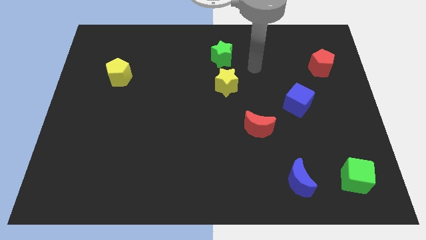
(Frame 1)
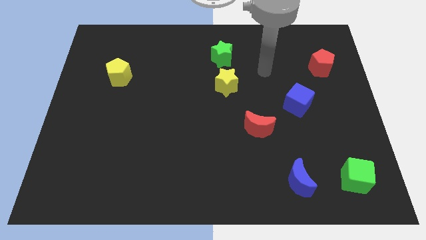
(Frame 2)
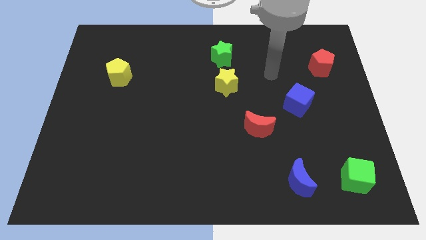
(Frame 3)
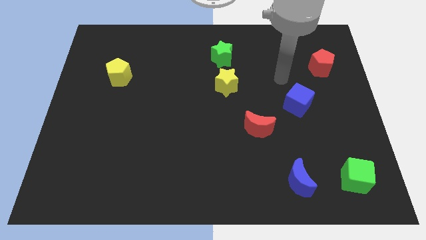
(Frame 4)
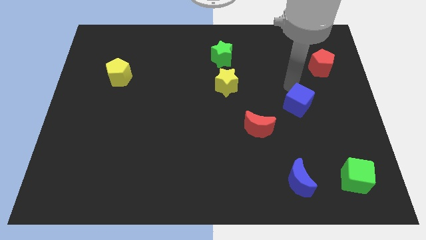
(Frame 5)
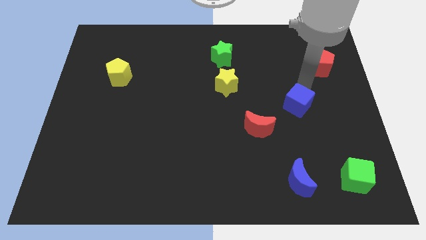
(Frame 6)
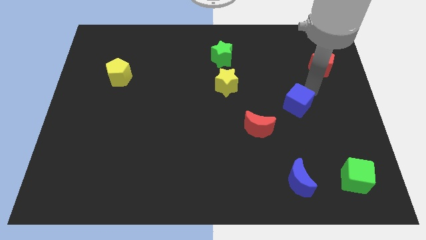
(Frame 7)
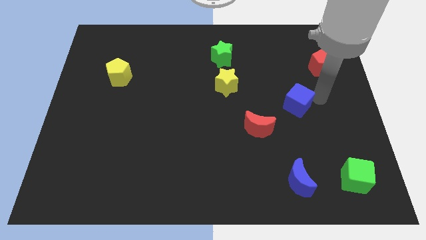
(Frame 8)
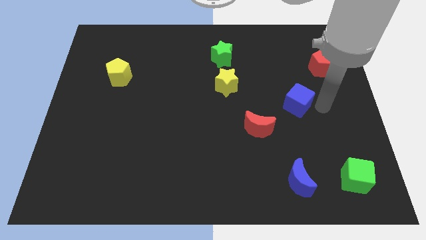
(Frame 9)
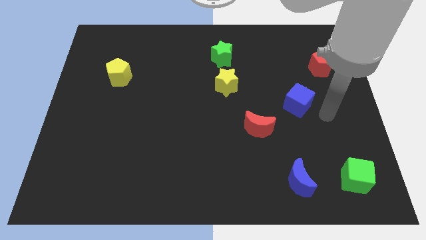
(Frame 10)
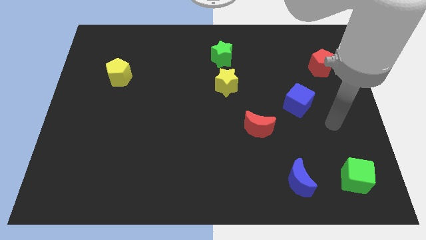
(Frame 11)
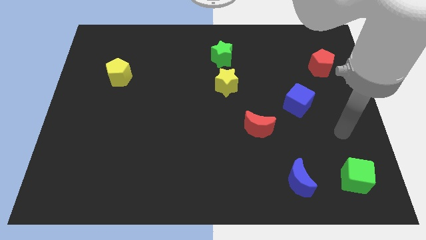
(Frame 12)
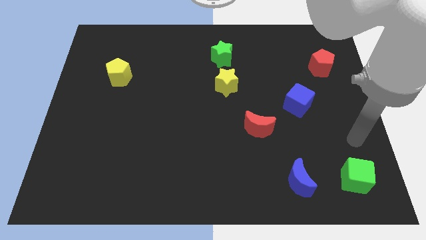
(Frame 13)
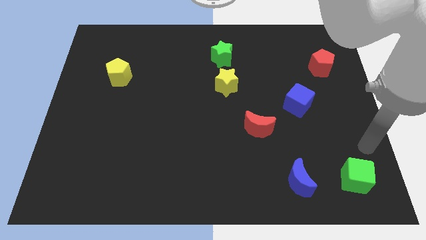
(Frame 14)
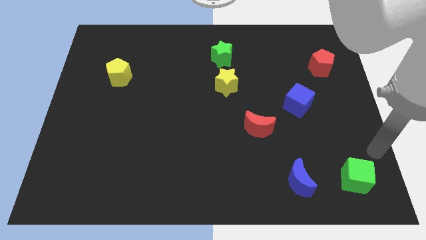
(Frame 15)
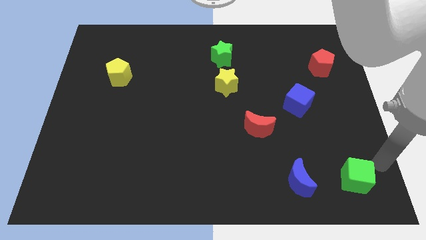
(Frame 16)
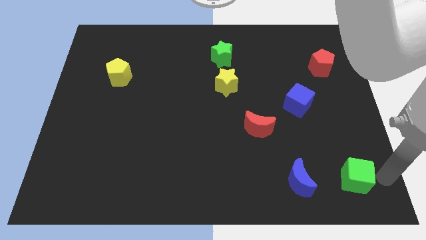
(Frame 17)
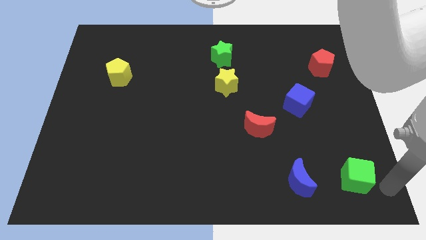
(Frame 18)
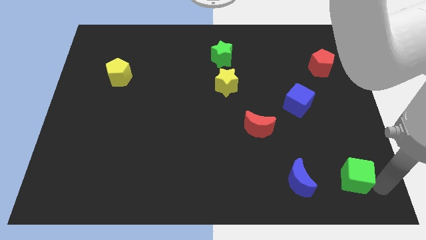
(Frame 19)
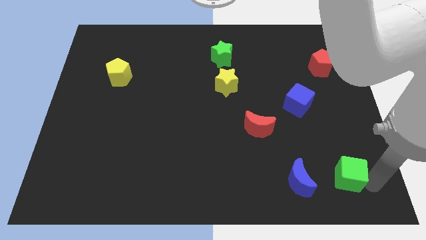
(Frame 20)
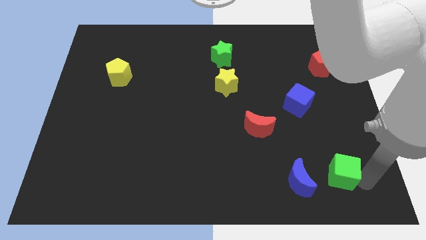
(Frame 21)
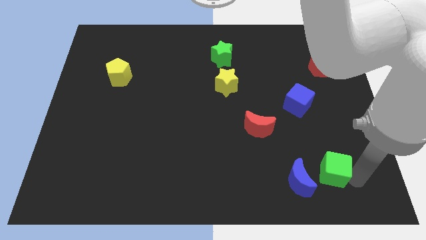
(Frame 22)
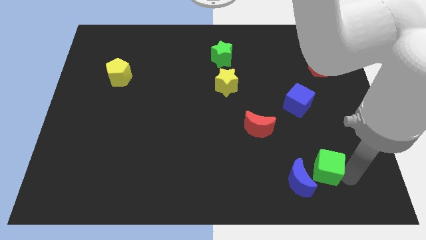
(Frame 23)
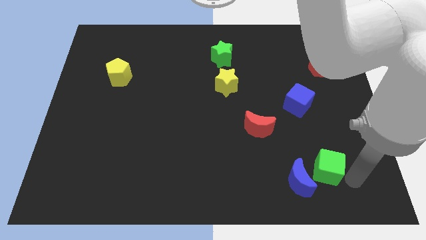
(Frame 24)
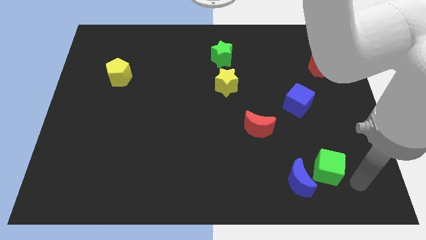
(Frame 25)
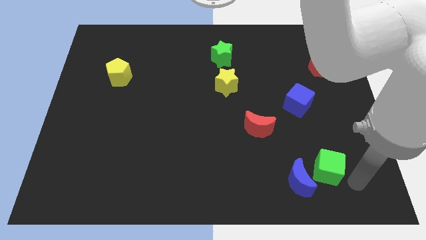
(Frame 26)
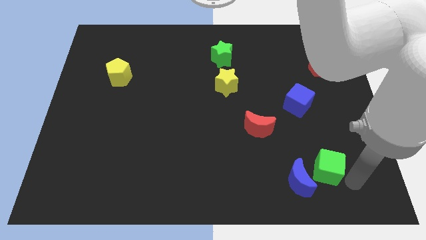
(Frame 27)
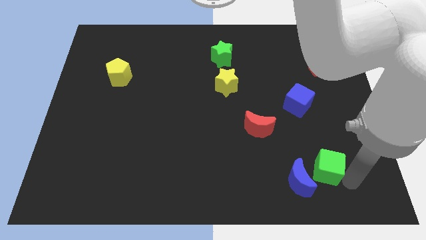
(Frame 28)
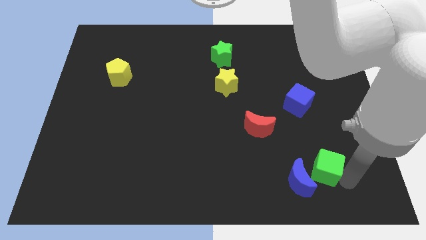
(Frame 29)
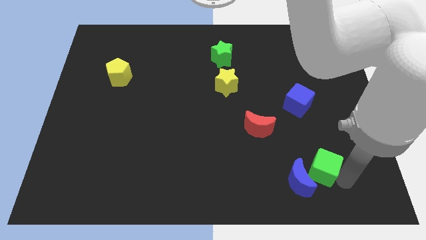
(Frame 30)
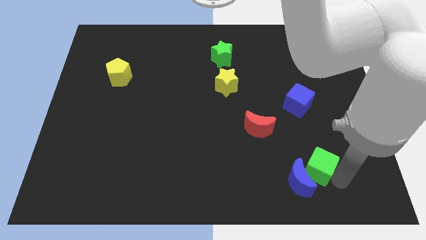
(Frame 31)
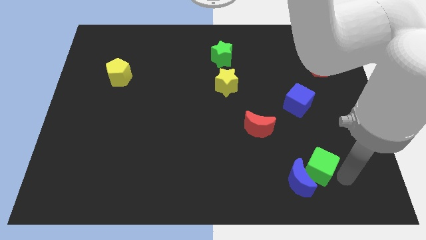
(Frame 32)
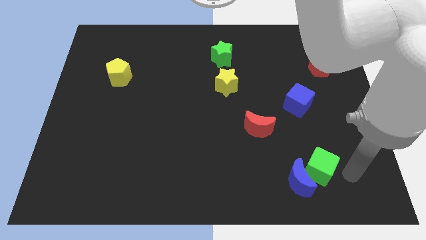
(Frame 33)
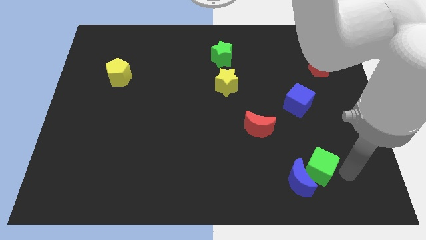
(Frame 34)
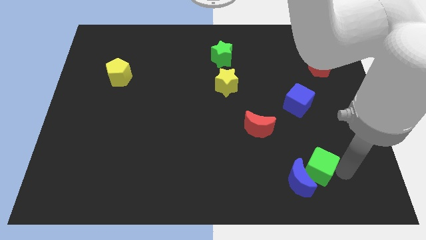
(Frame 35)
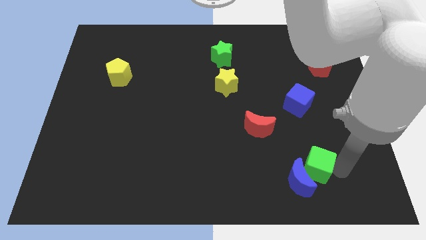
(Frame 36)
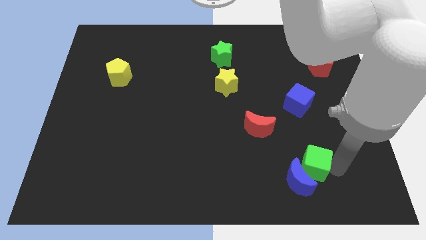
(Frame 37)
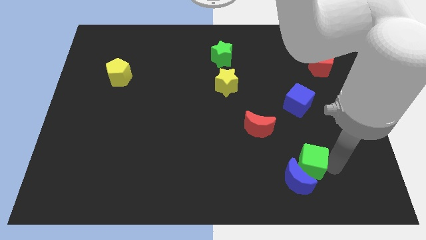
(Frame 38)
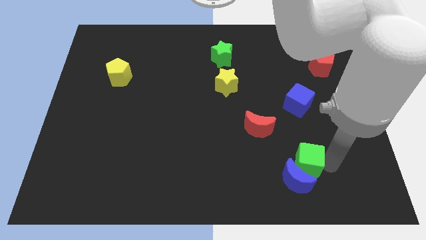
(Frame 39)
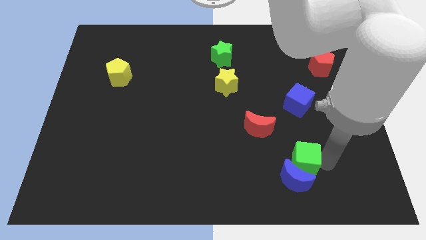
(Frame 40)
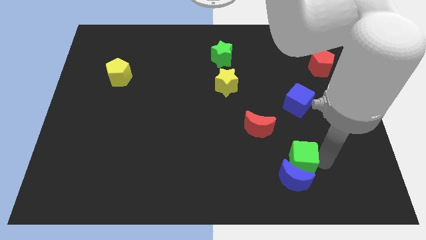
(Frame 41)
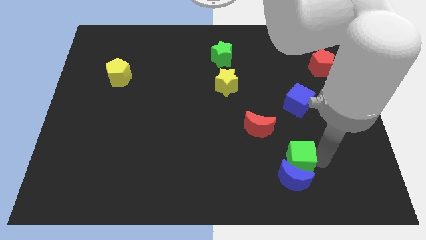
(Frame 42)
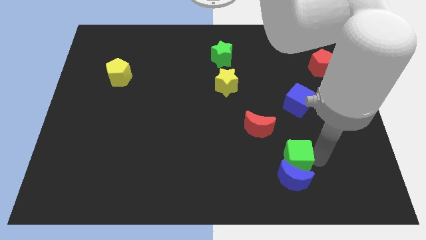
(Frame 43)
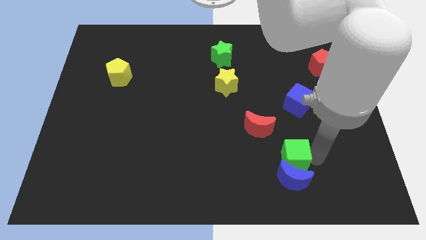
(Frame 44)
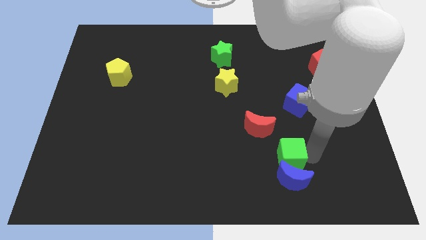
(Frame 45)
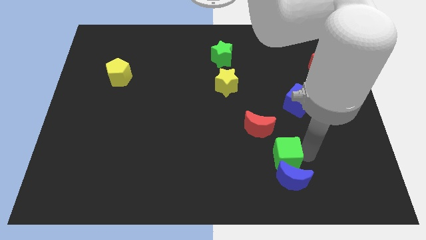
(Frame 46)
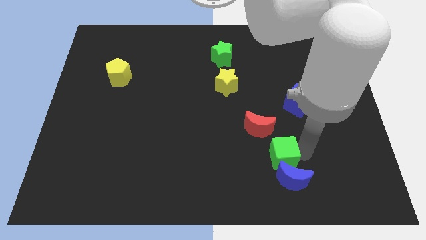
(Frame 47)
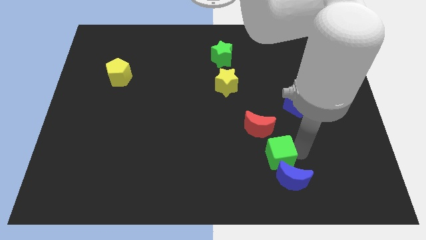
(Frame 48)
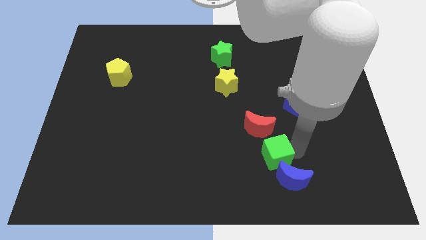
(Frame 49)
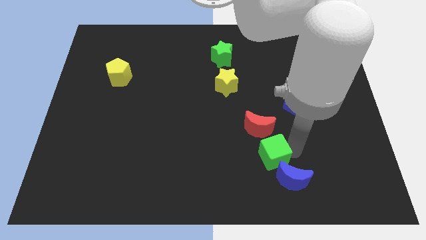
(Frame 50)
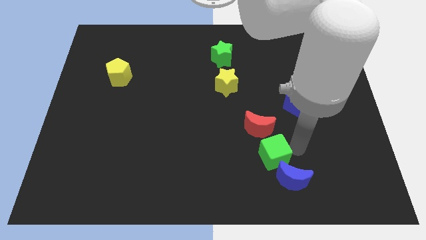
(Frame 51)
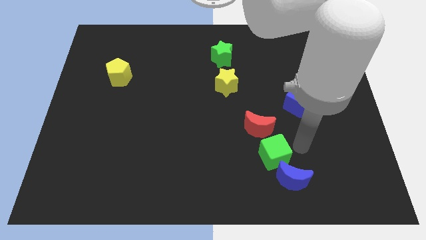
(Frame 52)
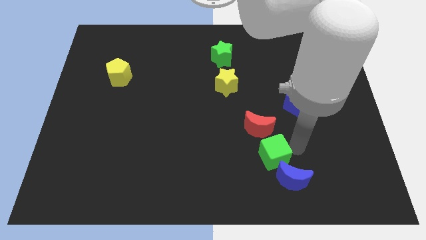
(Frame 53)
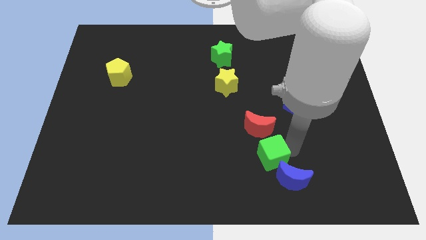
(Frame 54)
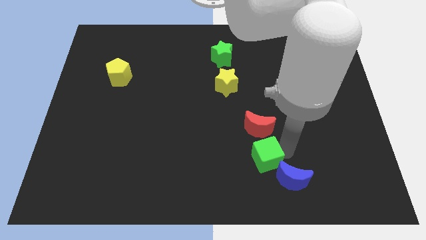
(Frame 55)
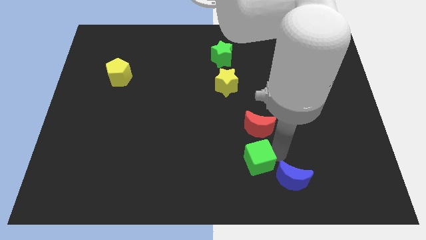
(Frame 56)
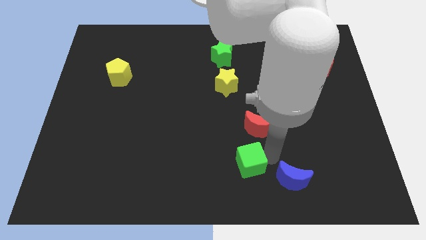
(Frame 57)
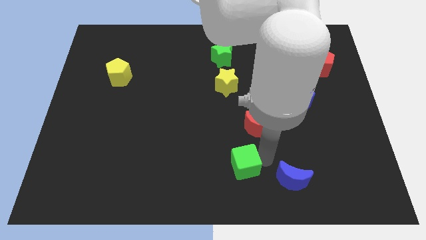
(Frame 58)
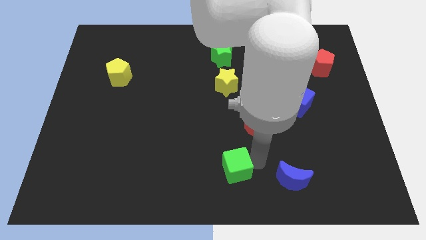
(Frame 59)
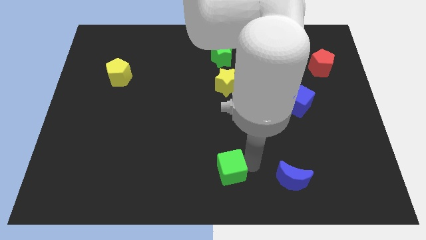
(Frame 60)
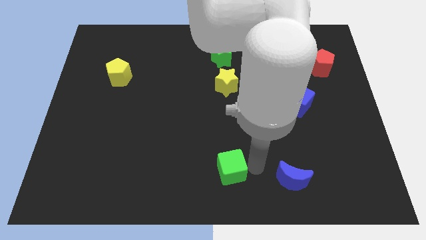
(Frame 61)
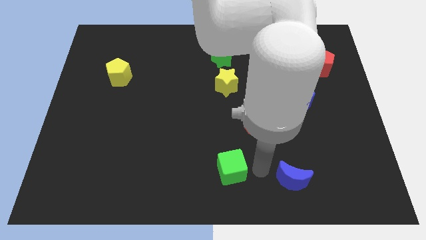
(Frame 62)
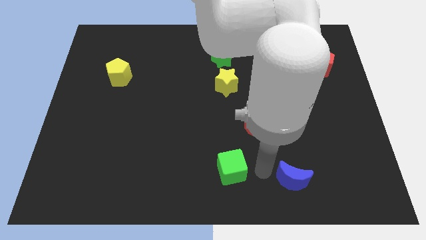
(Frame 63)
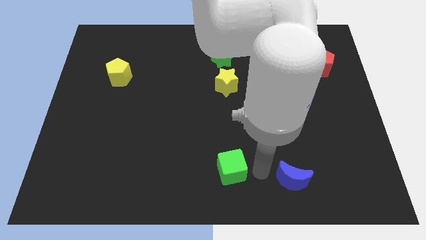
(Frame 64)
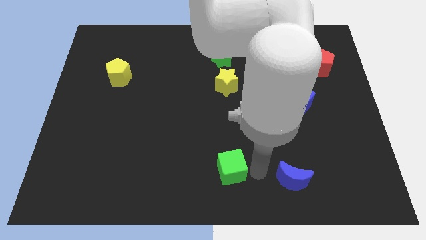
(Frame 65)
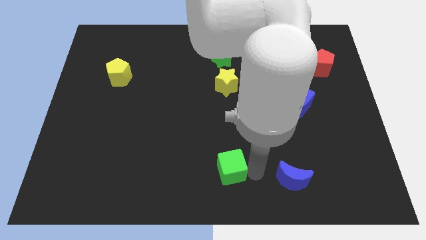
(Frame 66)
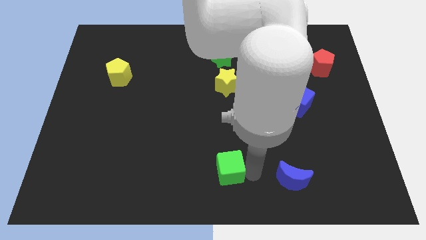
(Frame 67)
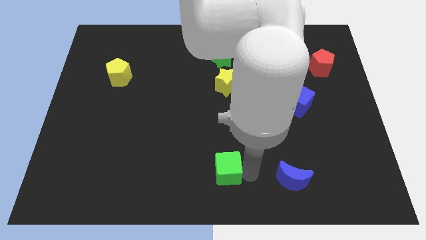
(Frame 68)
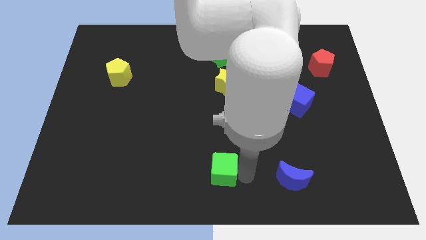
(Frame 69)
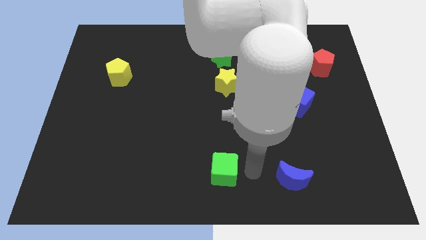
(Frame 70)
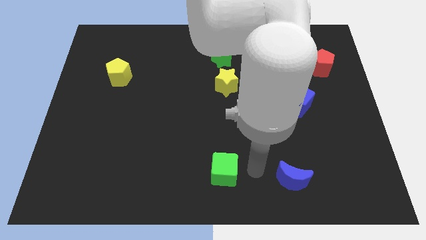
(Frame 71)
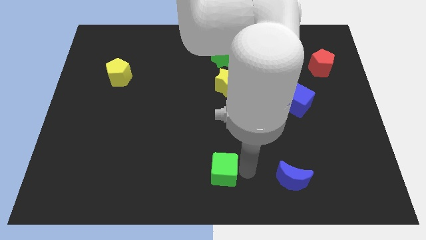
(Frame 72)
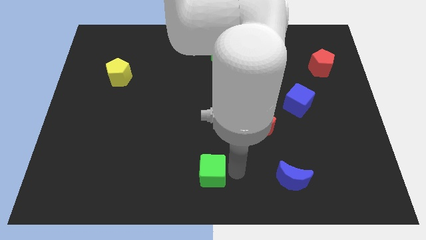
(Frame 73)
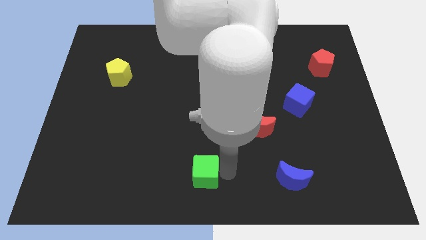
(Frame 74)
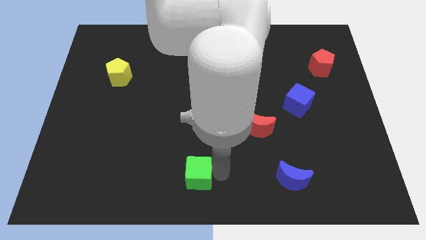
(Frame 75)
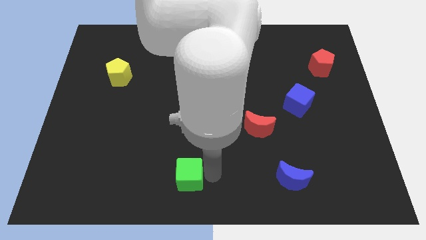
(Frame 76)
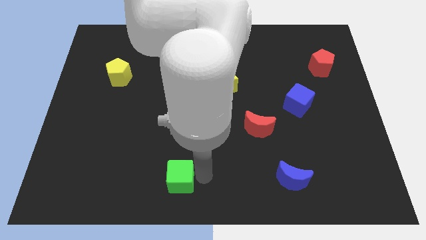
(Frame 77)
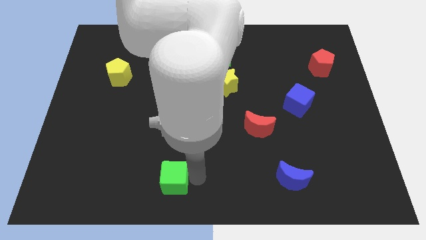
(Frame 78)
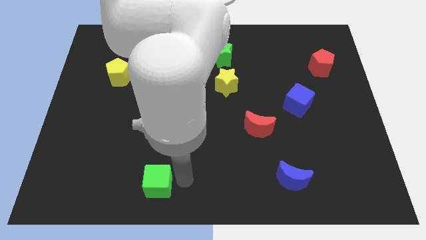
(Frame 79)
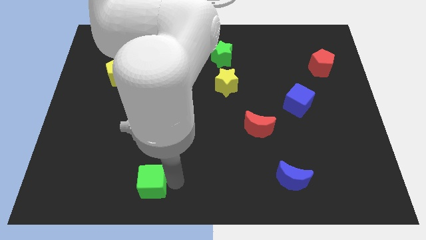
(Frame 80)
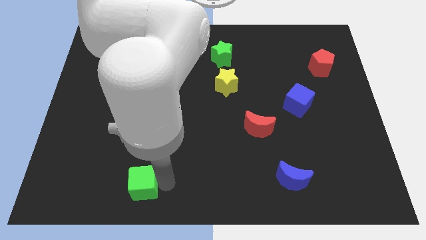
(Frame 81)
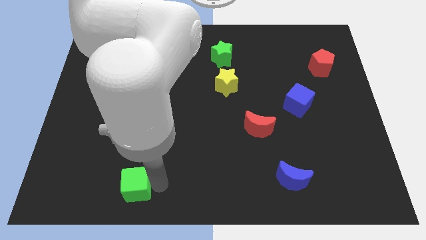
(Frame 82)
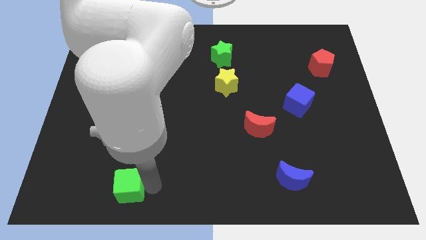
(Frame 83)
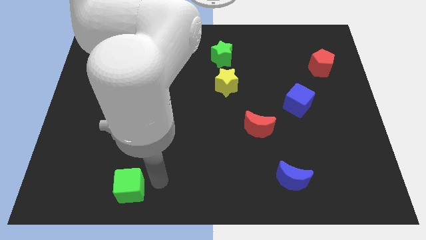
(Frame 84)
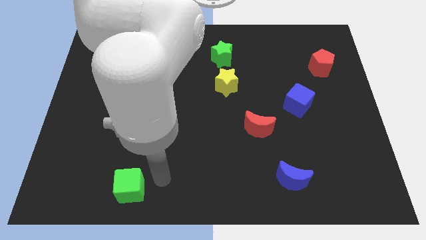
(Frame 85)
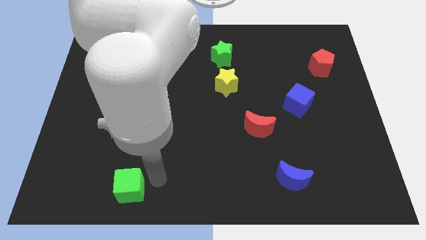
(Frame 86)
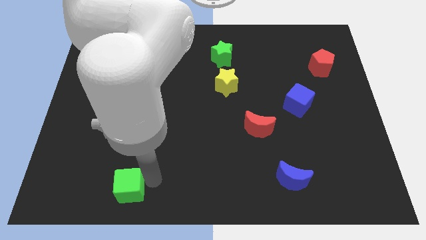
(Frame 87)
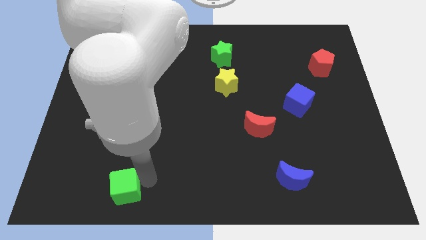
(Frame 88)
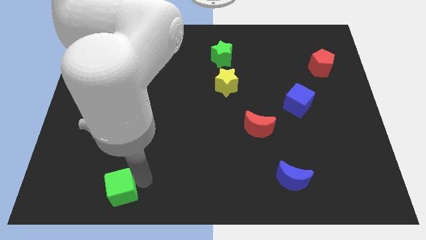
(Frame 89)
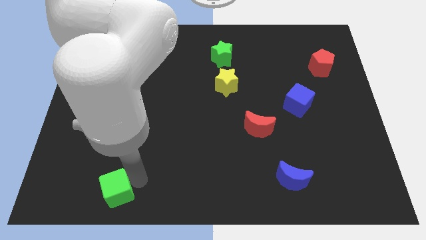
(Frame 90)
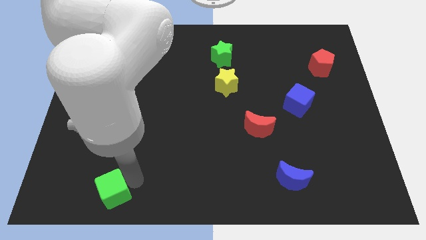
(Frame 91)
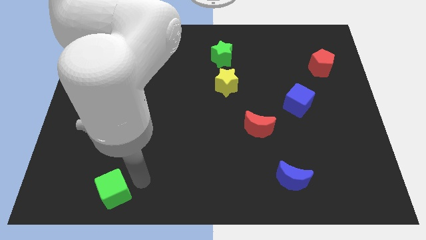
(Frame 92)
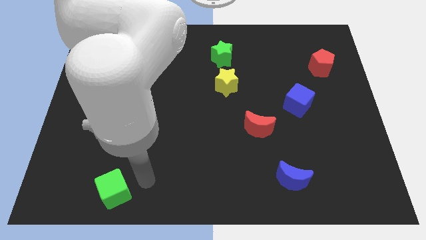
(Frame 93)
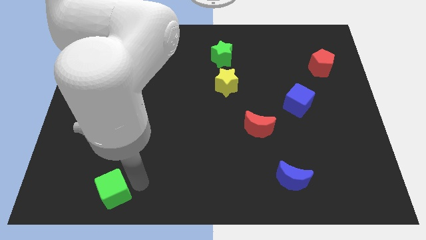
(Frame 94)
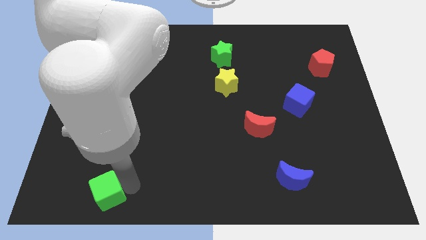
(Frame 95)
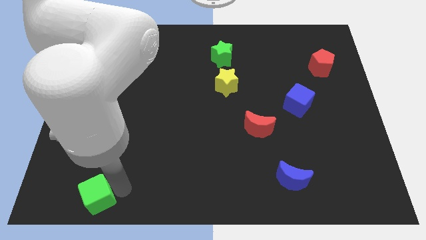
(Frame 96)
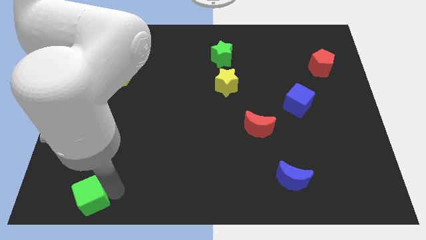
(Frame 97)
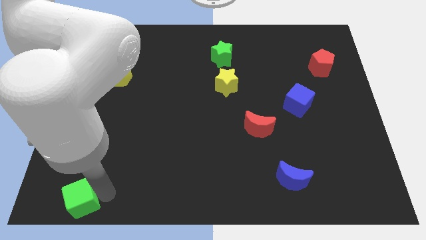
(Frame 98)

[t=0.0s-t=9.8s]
slide the green cube to the lower left corner
